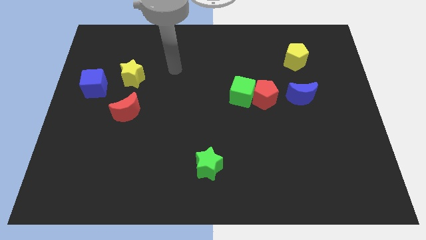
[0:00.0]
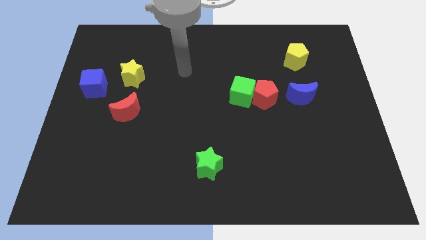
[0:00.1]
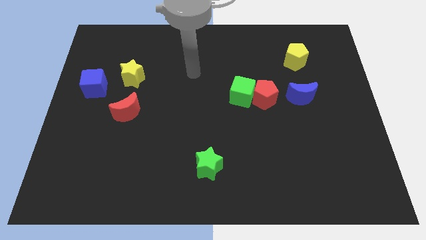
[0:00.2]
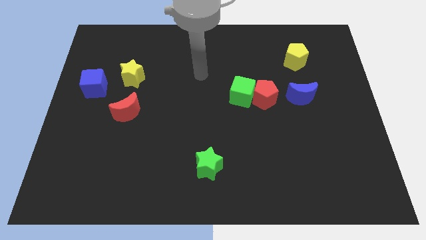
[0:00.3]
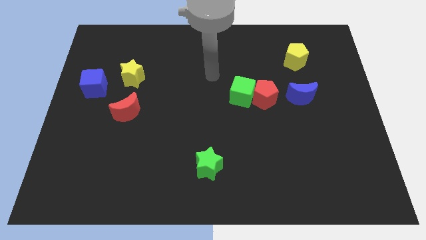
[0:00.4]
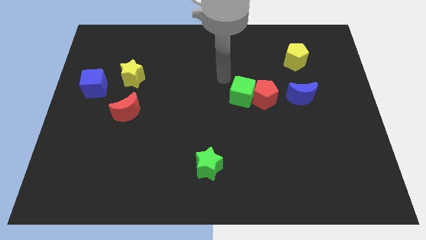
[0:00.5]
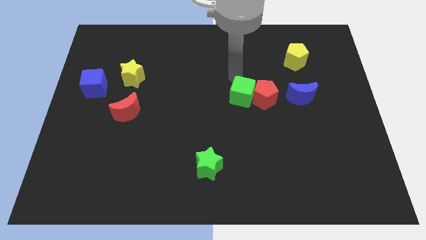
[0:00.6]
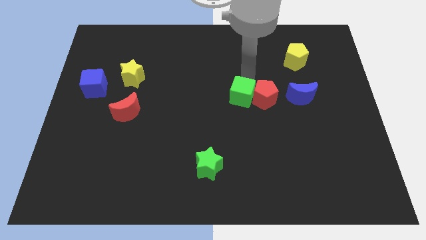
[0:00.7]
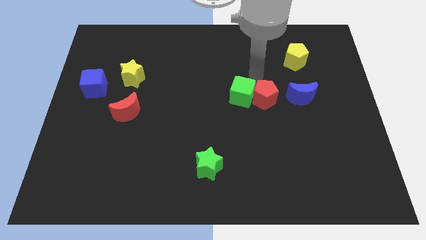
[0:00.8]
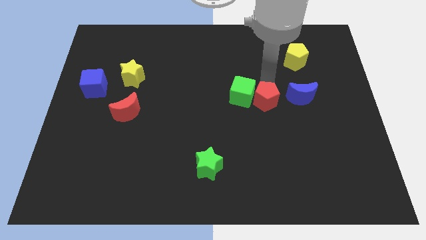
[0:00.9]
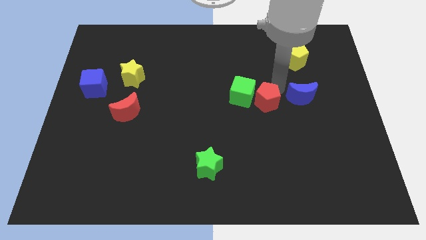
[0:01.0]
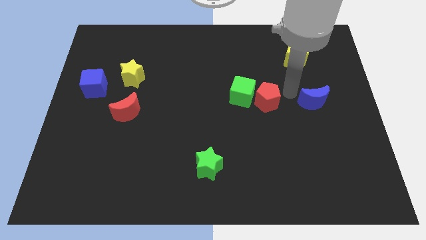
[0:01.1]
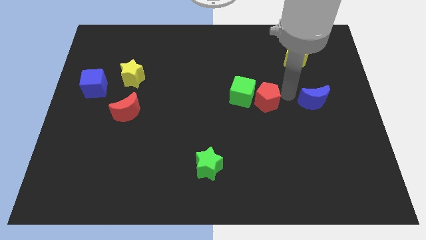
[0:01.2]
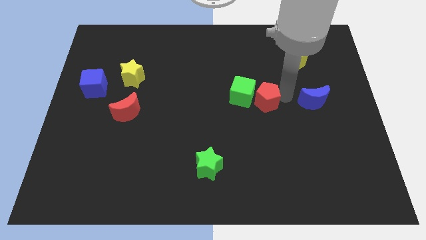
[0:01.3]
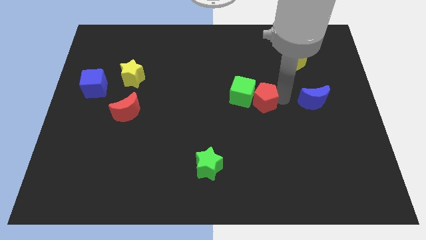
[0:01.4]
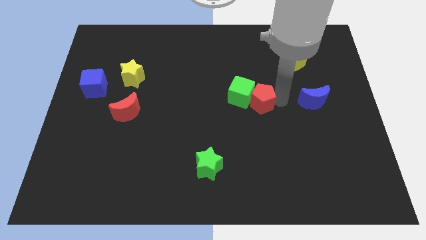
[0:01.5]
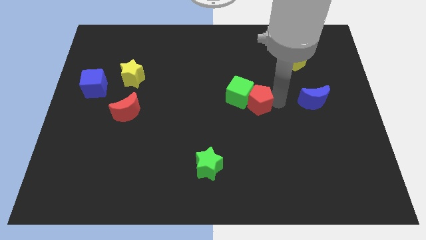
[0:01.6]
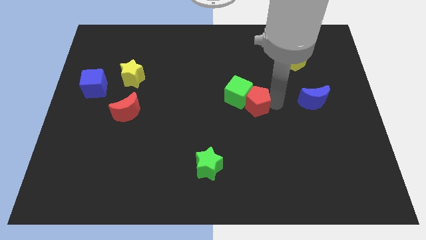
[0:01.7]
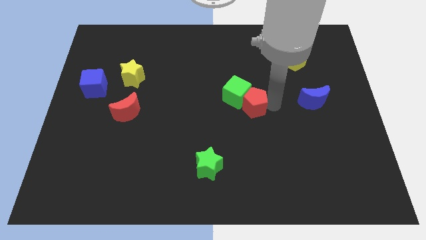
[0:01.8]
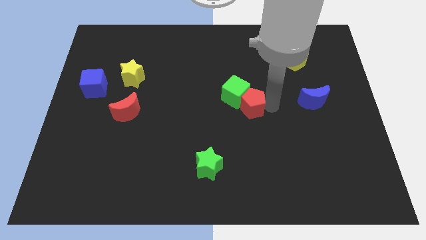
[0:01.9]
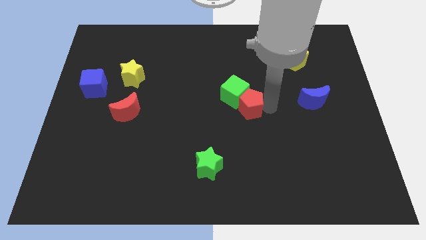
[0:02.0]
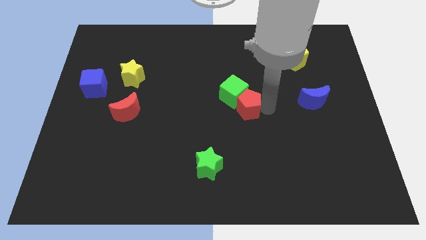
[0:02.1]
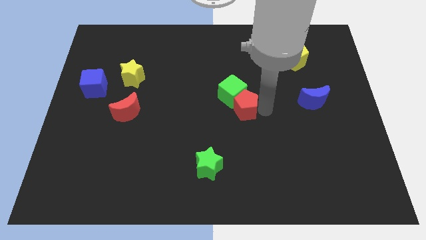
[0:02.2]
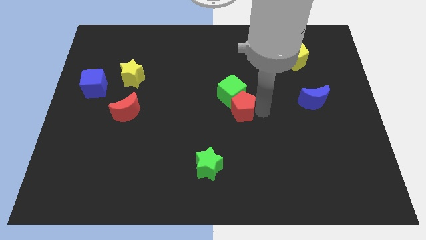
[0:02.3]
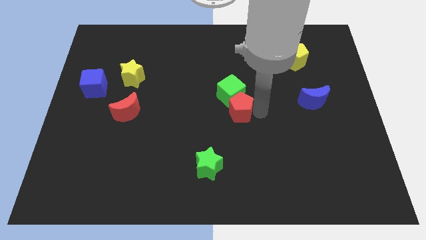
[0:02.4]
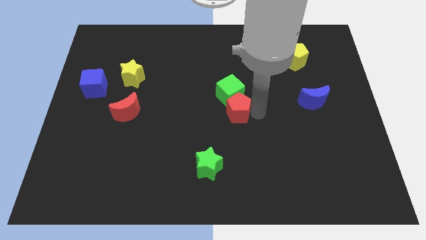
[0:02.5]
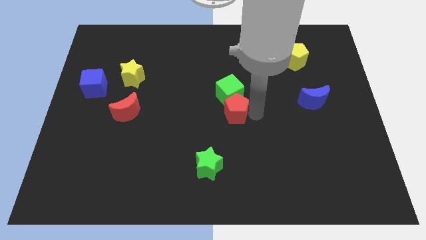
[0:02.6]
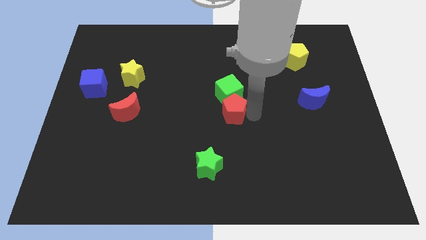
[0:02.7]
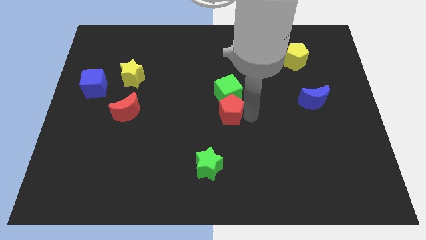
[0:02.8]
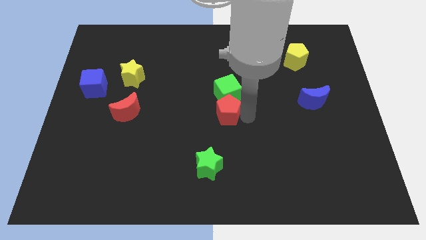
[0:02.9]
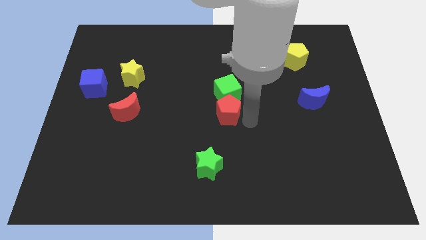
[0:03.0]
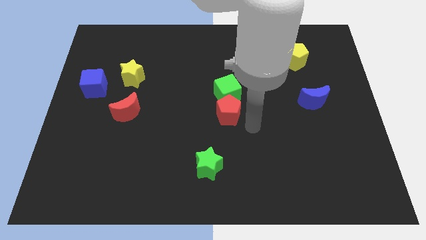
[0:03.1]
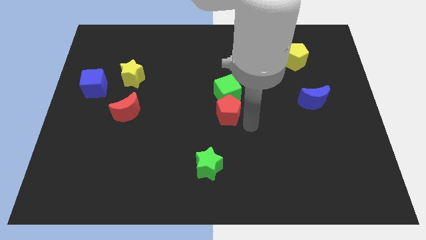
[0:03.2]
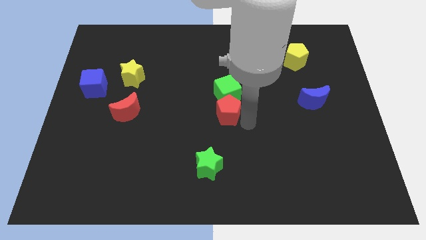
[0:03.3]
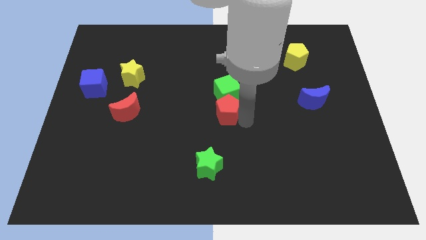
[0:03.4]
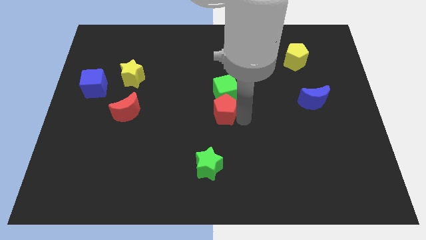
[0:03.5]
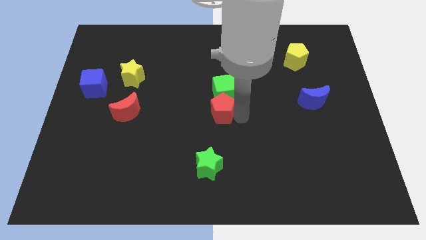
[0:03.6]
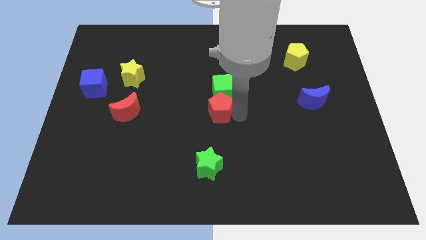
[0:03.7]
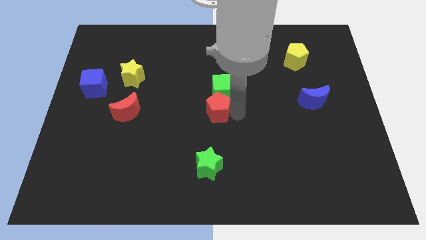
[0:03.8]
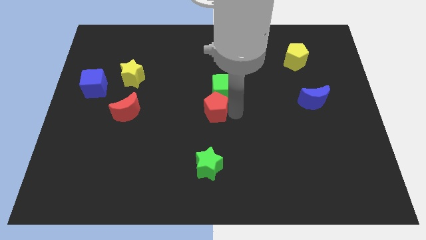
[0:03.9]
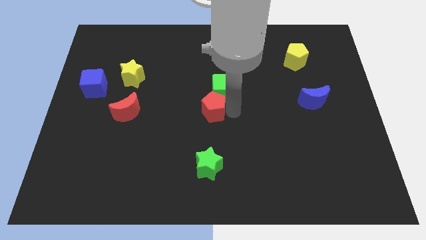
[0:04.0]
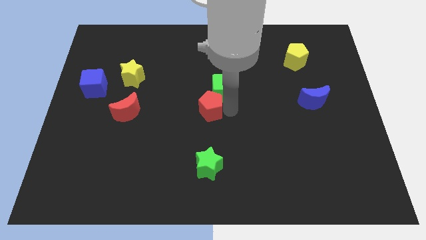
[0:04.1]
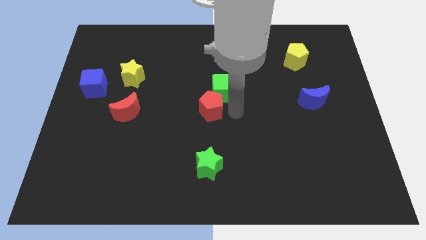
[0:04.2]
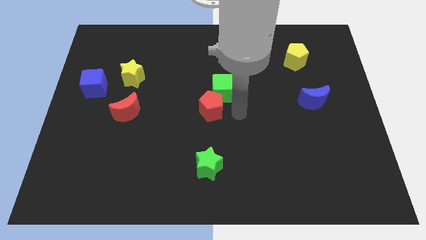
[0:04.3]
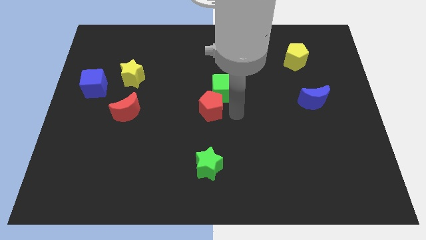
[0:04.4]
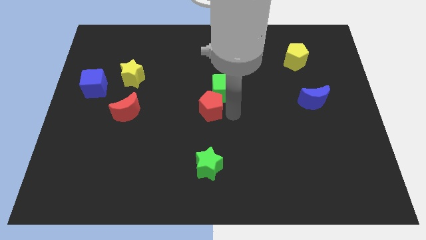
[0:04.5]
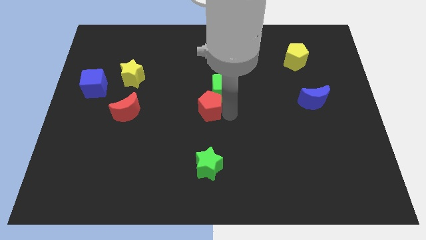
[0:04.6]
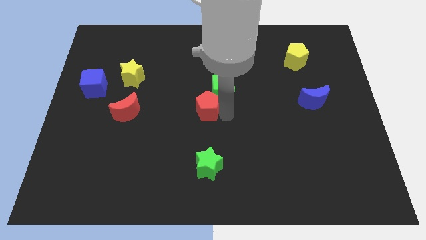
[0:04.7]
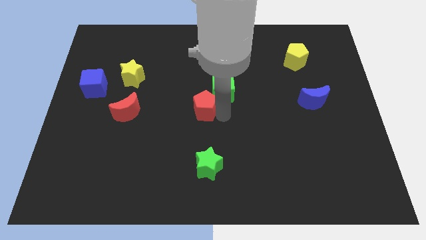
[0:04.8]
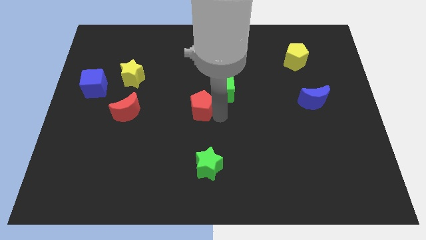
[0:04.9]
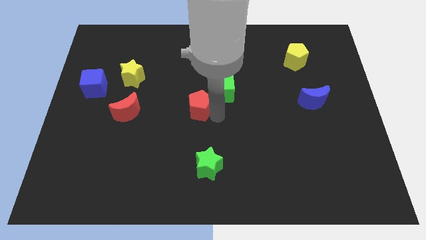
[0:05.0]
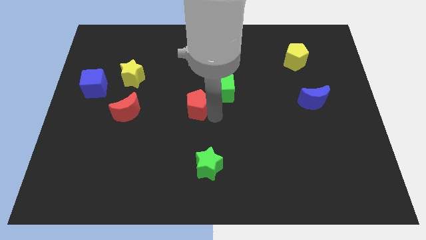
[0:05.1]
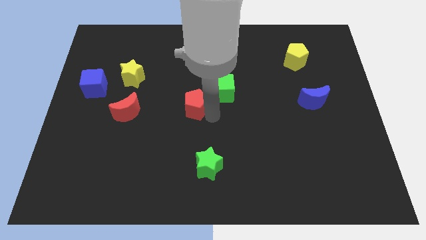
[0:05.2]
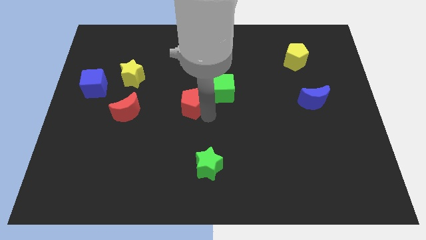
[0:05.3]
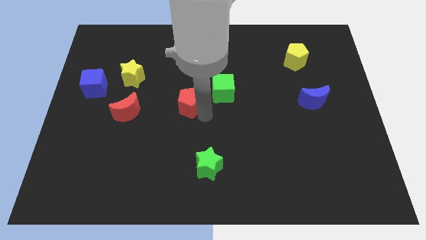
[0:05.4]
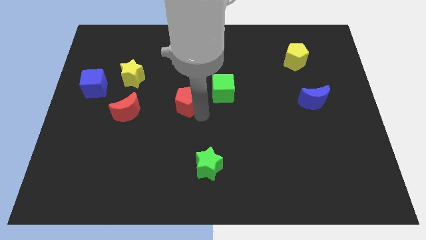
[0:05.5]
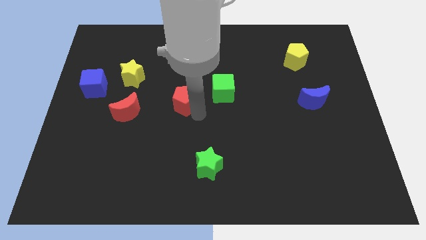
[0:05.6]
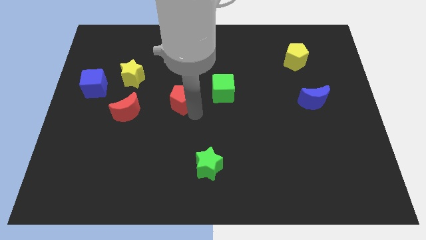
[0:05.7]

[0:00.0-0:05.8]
push the red pentagon to the left

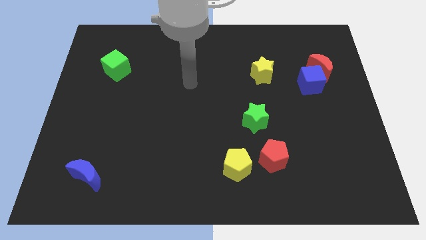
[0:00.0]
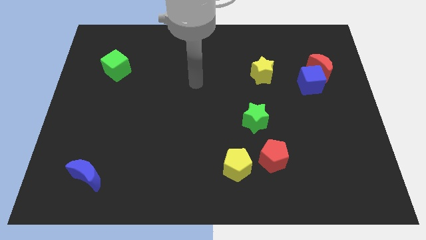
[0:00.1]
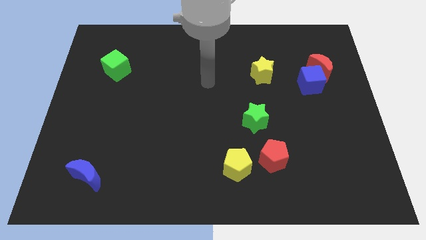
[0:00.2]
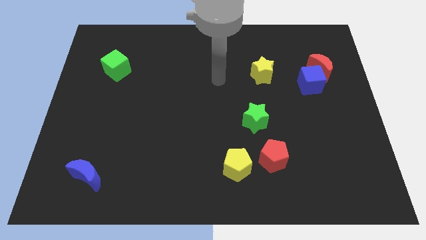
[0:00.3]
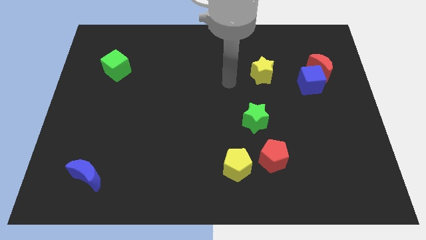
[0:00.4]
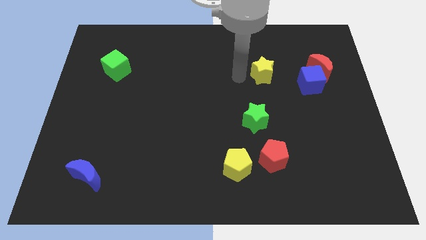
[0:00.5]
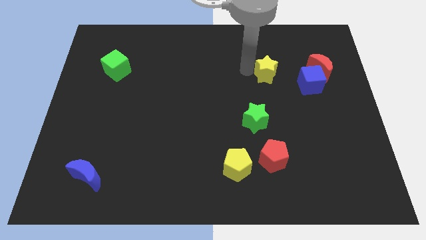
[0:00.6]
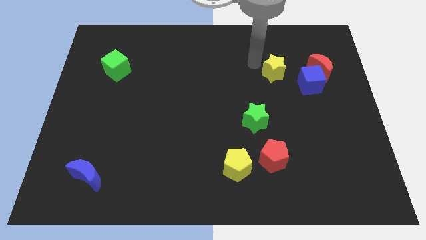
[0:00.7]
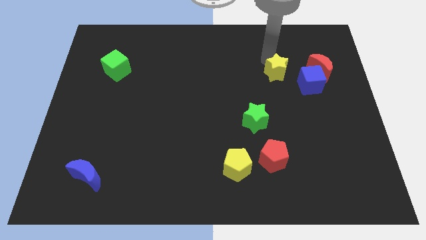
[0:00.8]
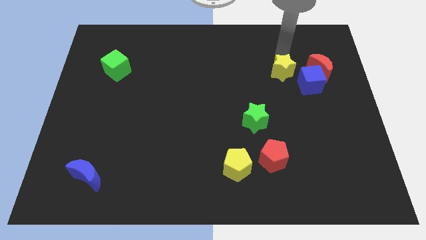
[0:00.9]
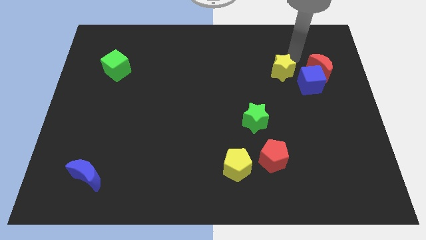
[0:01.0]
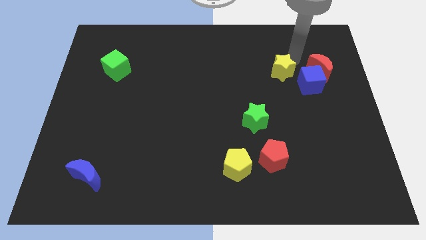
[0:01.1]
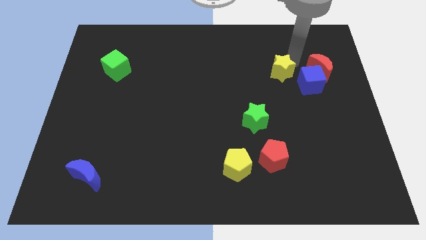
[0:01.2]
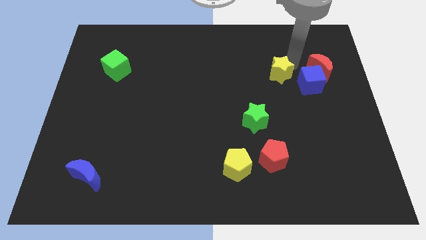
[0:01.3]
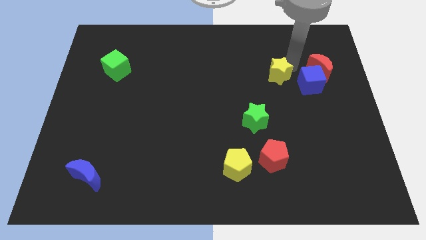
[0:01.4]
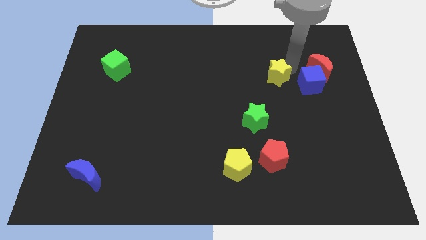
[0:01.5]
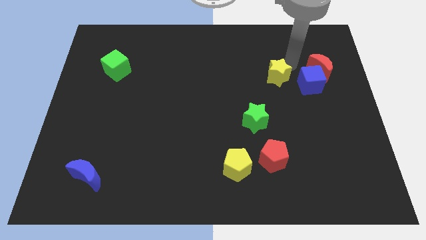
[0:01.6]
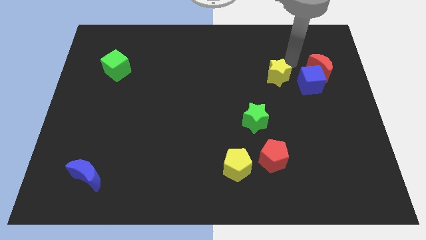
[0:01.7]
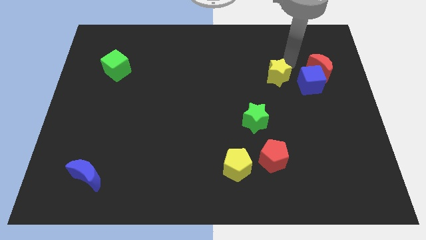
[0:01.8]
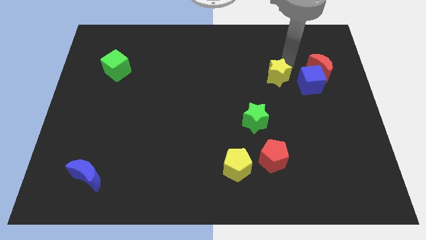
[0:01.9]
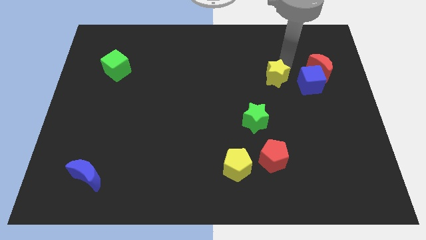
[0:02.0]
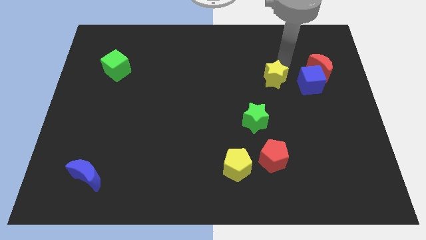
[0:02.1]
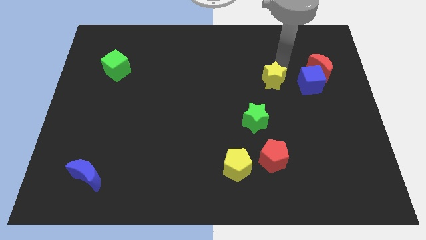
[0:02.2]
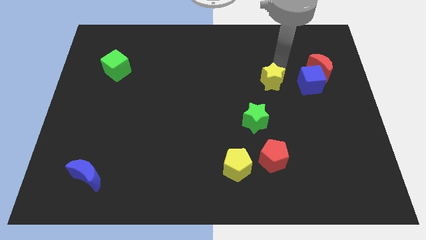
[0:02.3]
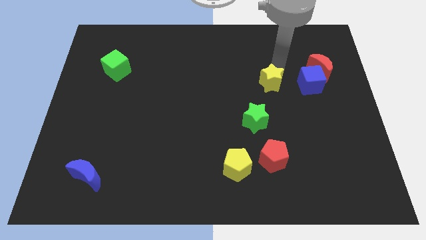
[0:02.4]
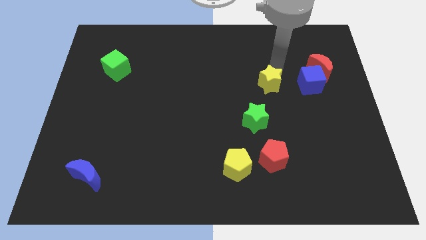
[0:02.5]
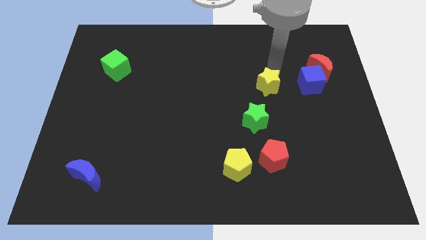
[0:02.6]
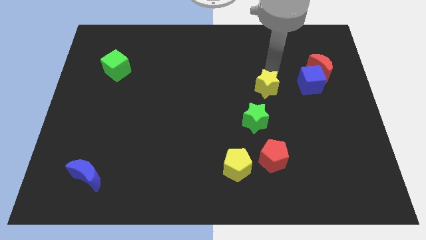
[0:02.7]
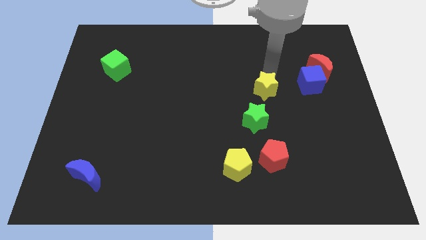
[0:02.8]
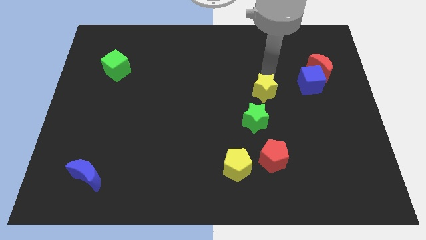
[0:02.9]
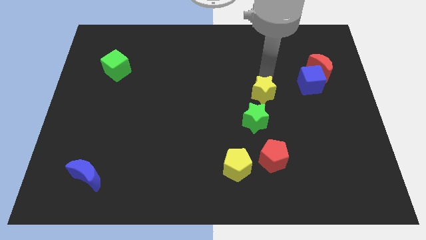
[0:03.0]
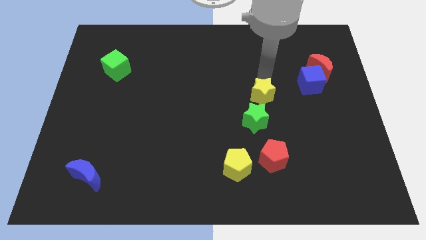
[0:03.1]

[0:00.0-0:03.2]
slightly move the yellow star down
